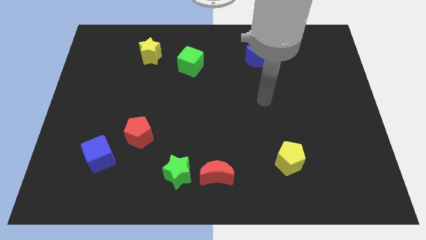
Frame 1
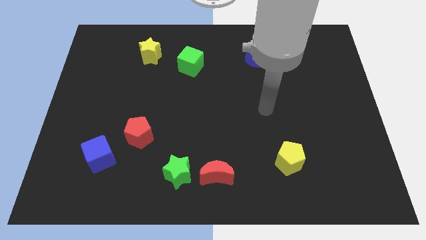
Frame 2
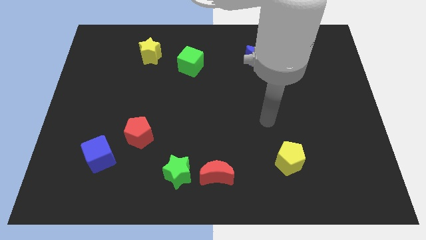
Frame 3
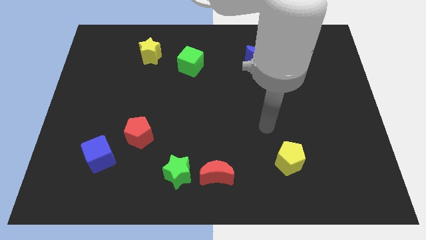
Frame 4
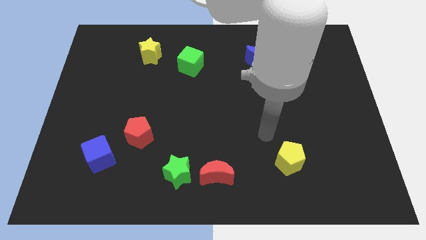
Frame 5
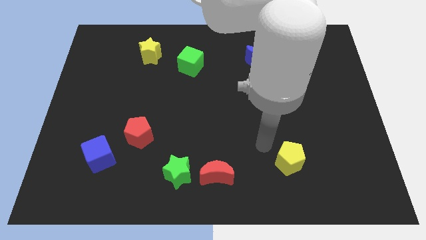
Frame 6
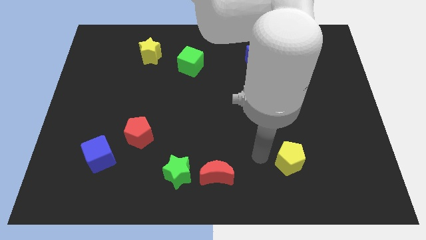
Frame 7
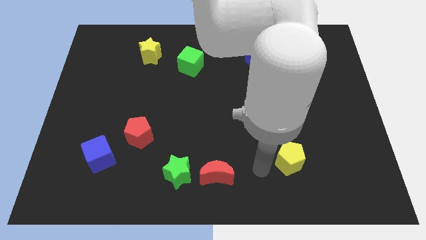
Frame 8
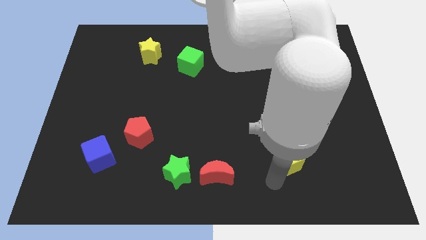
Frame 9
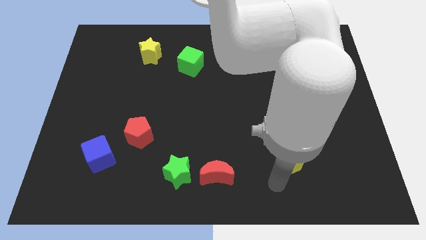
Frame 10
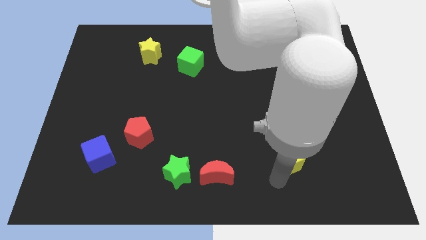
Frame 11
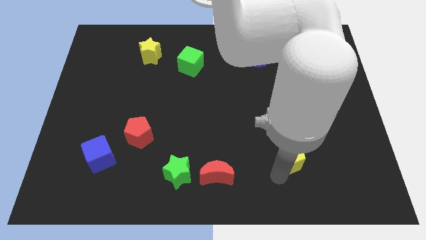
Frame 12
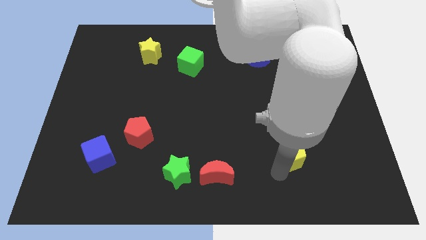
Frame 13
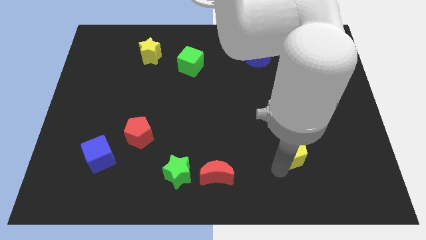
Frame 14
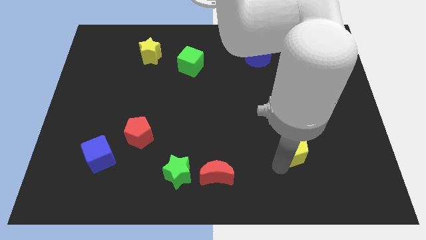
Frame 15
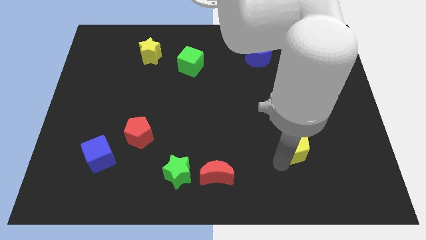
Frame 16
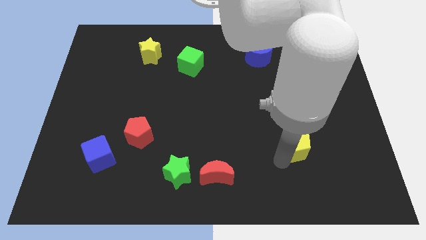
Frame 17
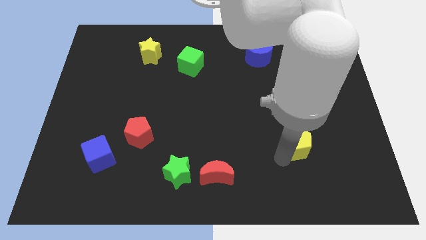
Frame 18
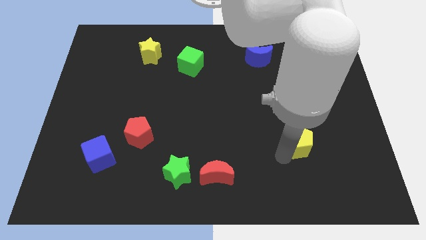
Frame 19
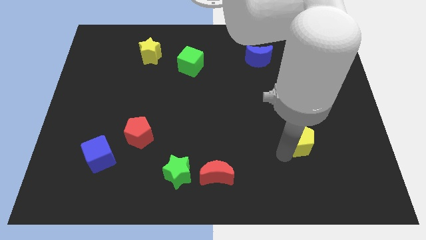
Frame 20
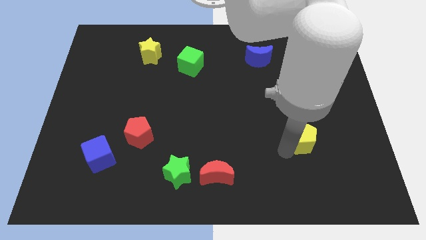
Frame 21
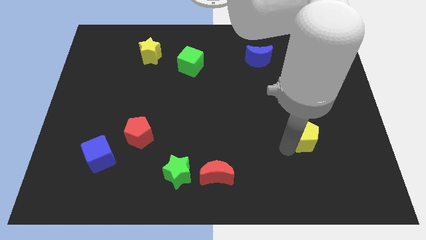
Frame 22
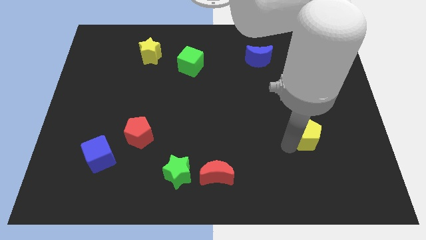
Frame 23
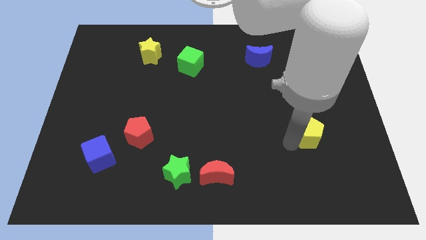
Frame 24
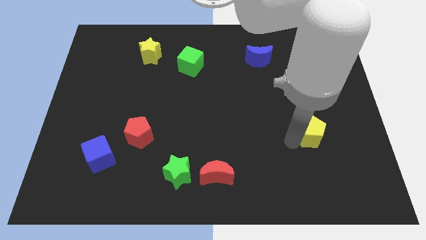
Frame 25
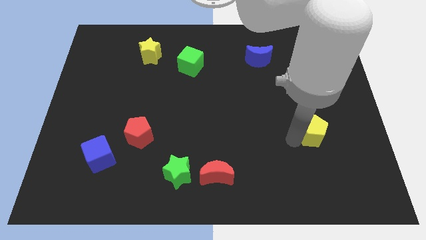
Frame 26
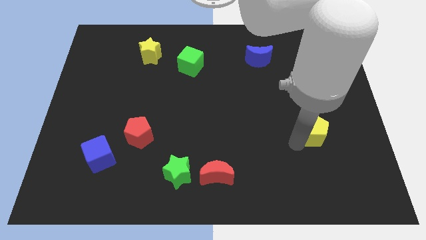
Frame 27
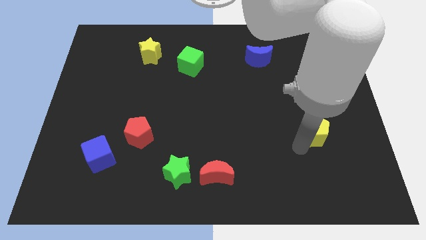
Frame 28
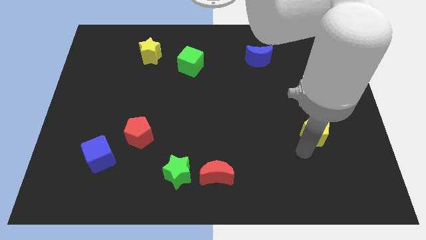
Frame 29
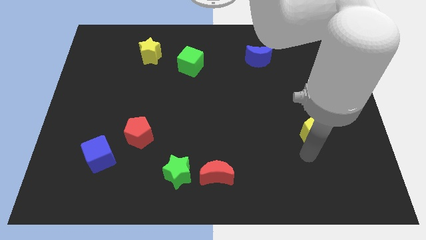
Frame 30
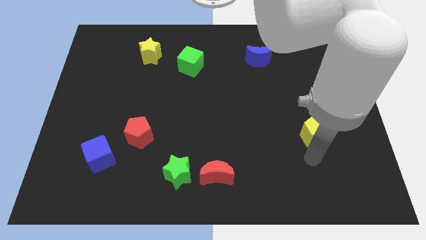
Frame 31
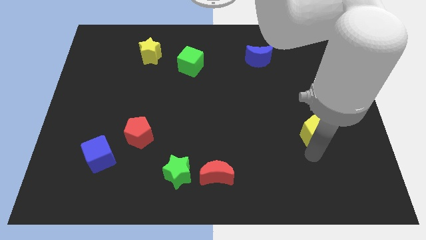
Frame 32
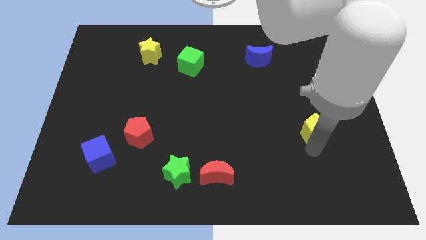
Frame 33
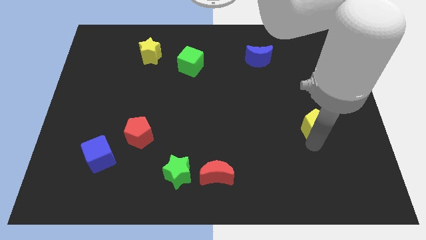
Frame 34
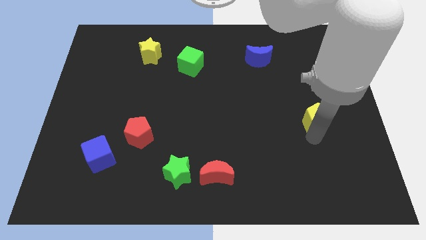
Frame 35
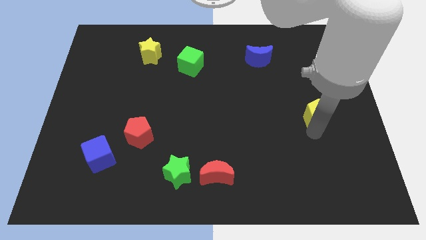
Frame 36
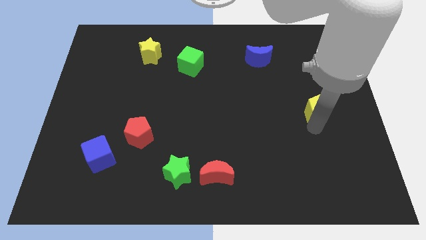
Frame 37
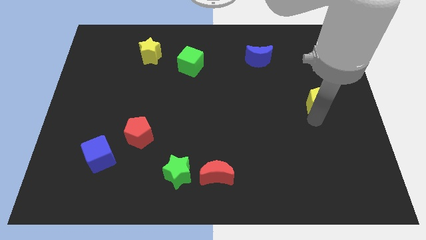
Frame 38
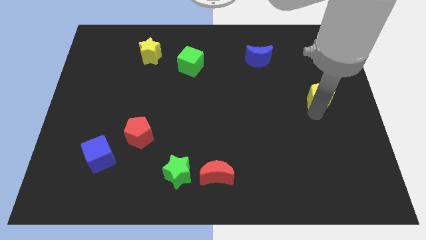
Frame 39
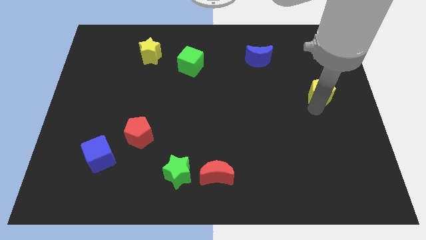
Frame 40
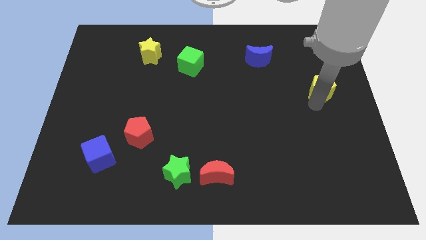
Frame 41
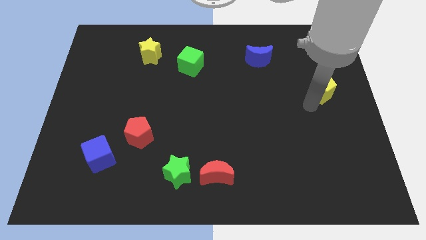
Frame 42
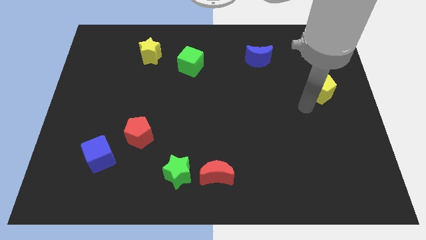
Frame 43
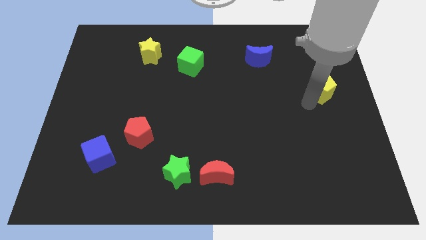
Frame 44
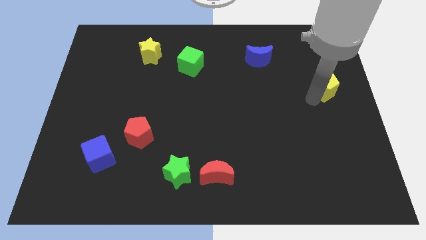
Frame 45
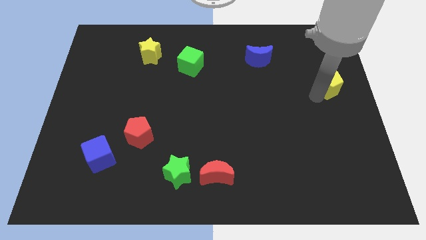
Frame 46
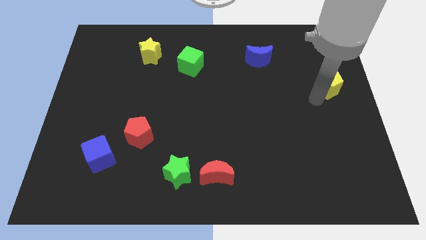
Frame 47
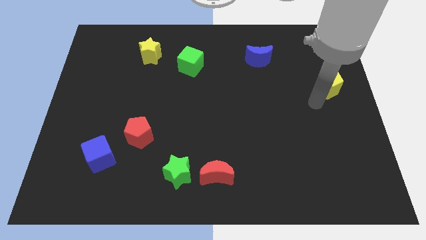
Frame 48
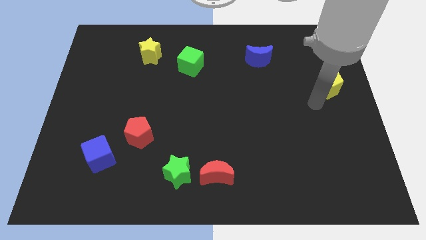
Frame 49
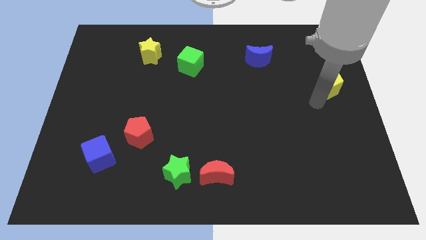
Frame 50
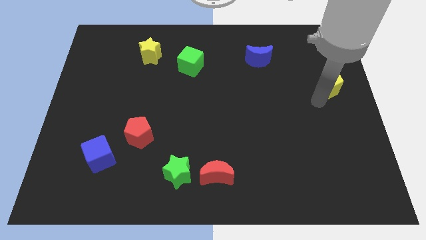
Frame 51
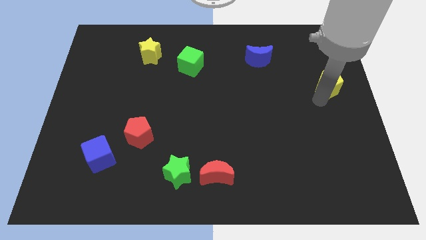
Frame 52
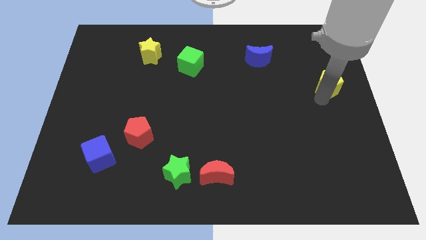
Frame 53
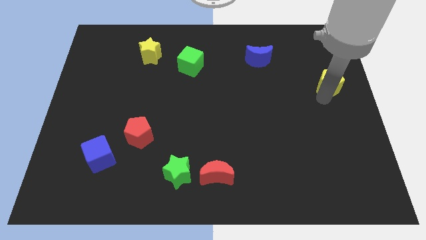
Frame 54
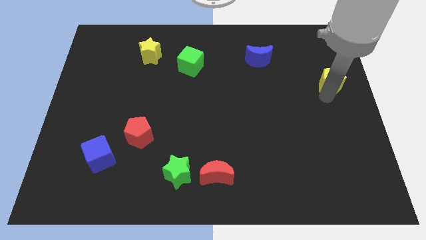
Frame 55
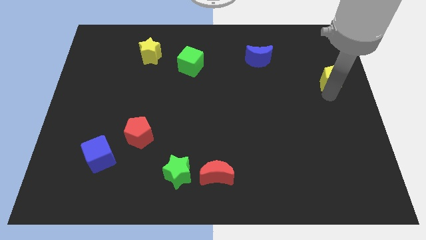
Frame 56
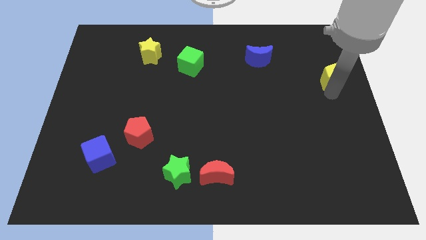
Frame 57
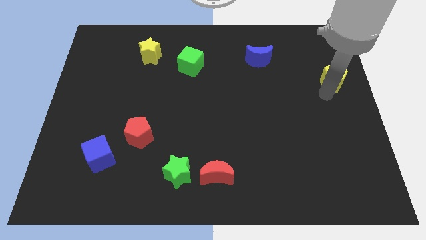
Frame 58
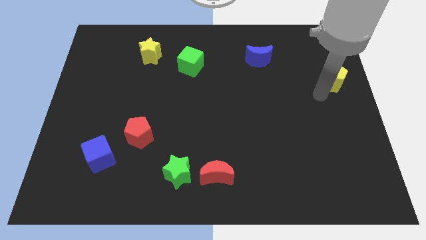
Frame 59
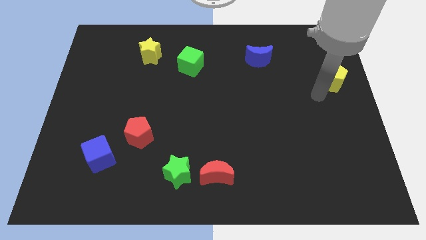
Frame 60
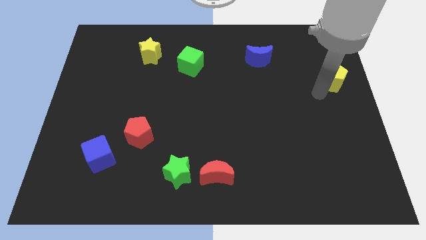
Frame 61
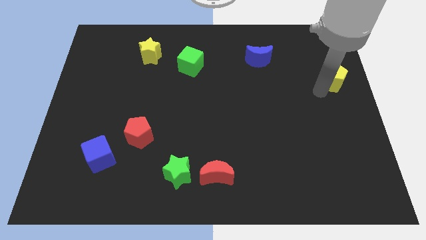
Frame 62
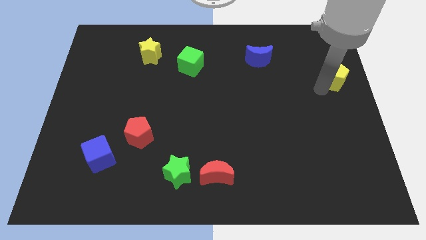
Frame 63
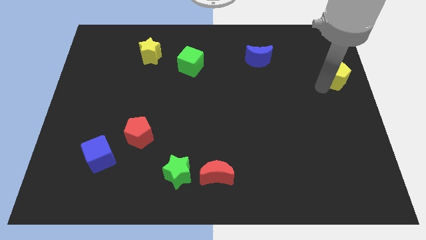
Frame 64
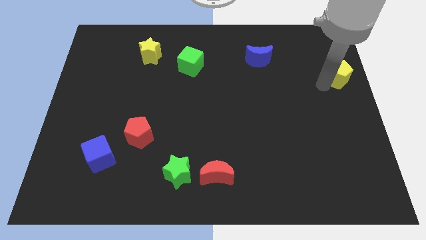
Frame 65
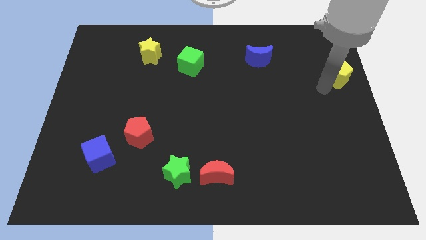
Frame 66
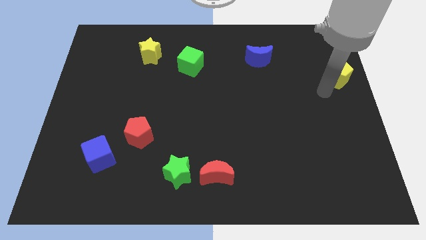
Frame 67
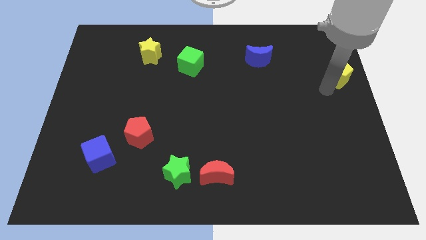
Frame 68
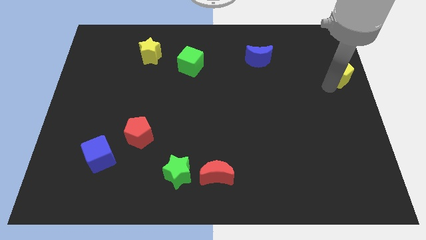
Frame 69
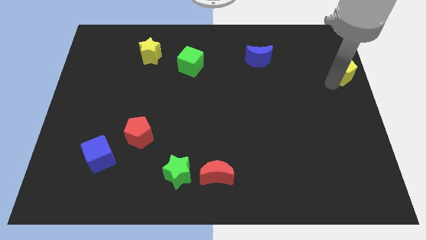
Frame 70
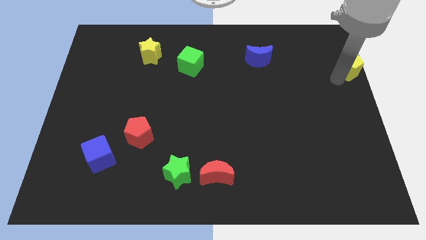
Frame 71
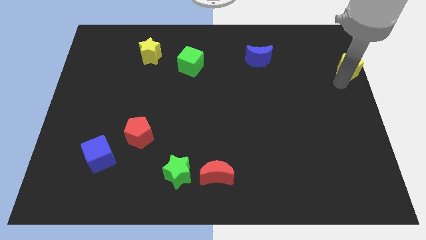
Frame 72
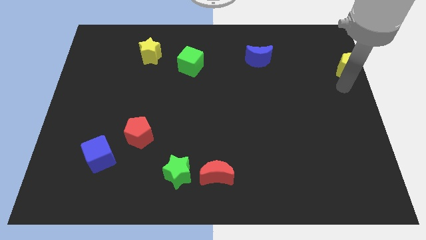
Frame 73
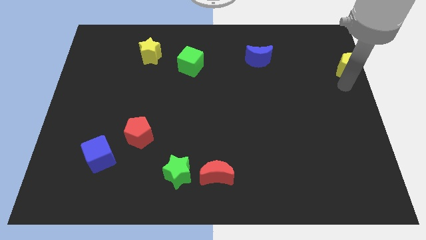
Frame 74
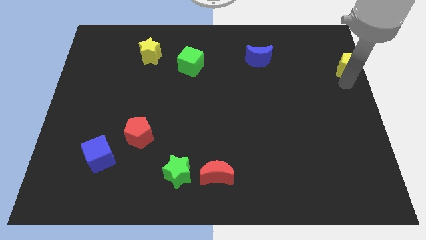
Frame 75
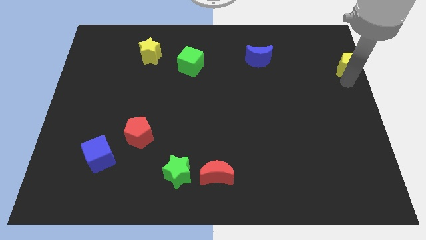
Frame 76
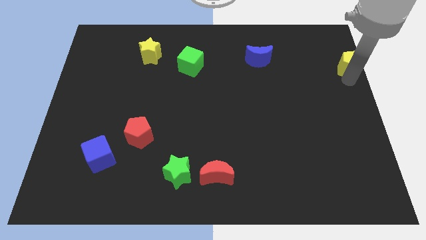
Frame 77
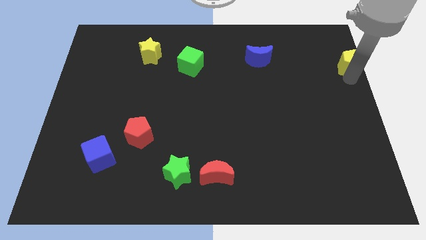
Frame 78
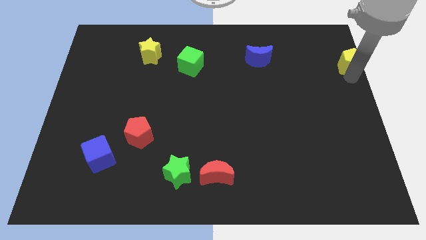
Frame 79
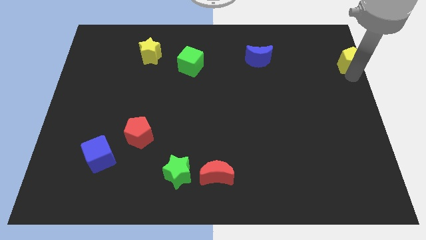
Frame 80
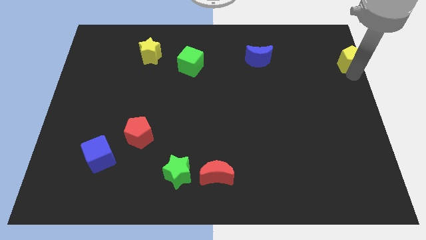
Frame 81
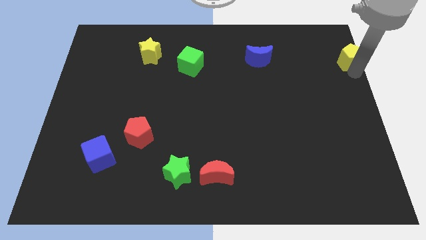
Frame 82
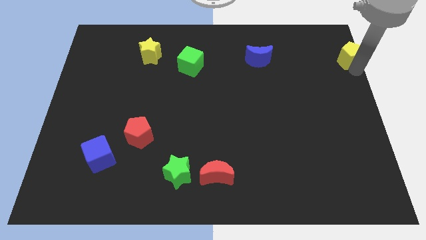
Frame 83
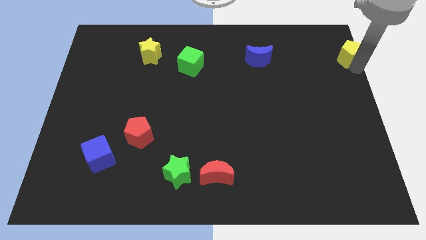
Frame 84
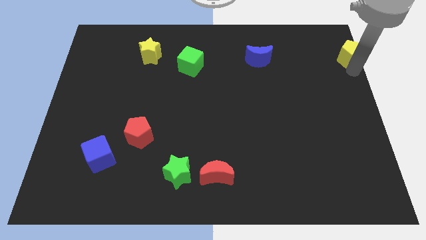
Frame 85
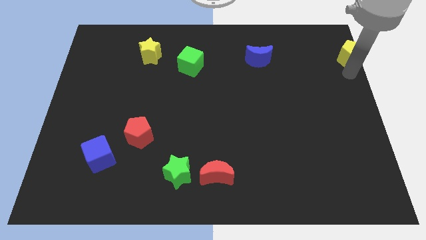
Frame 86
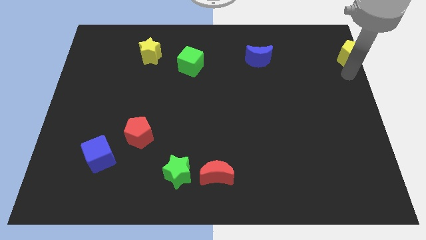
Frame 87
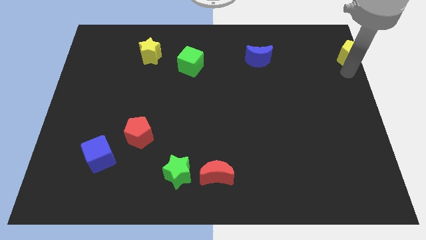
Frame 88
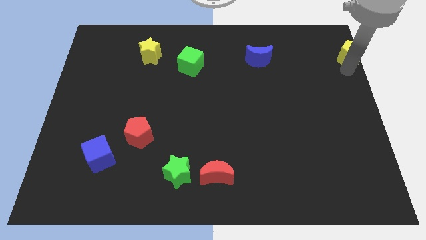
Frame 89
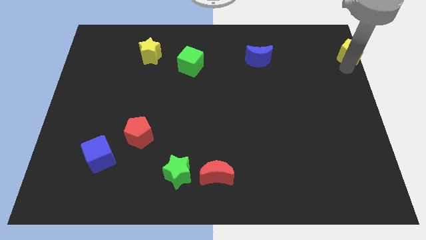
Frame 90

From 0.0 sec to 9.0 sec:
slide the yellow pentagon to the top right
